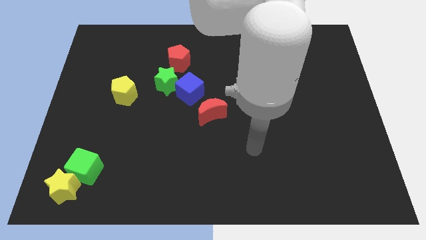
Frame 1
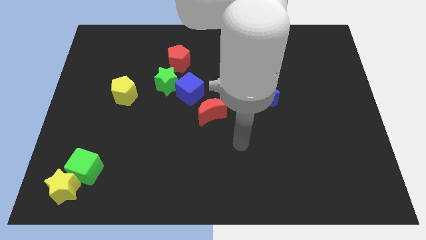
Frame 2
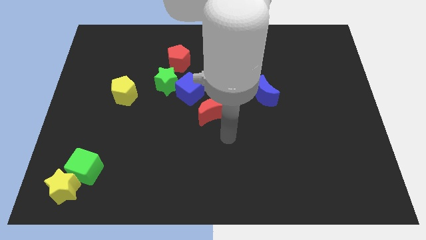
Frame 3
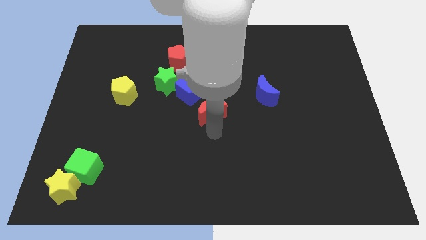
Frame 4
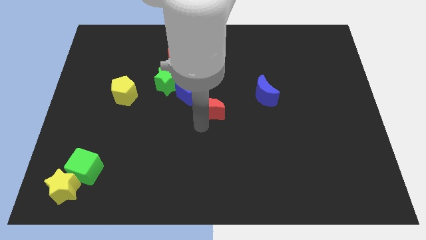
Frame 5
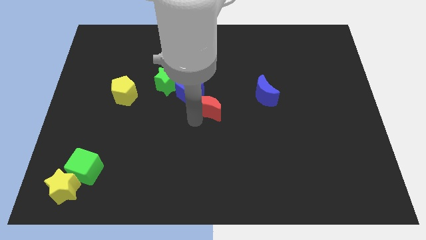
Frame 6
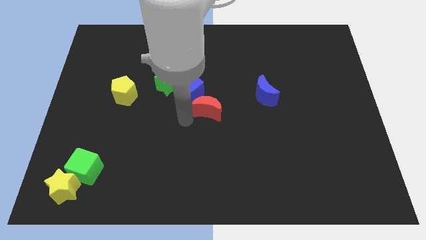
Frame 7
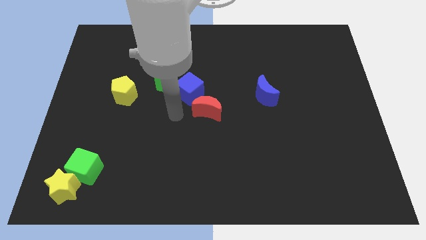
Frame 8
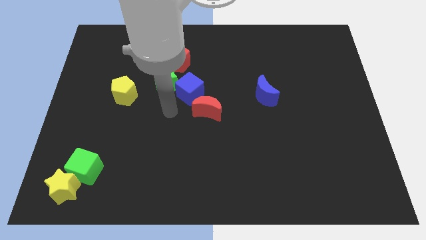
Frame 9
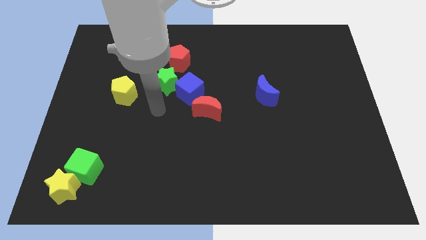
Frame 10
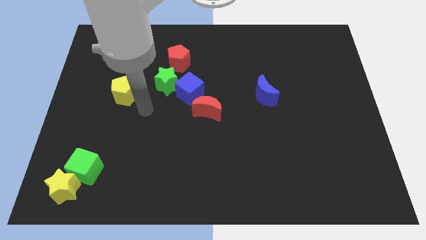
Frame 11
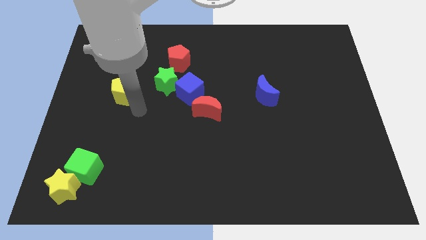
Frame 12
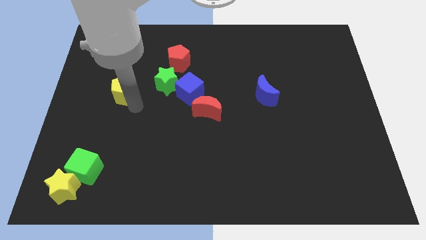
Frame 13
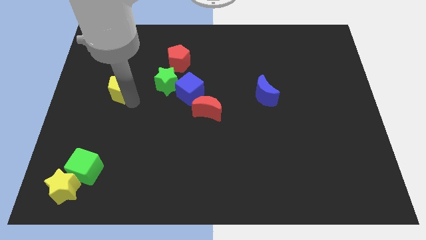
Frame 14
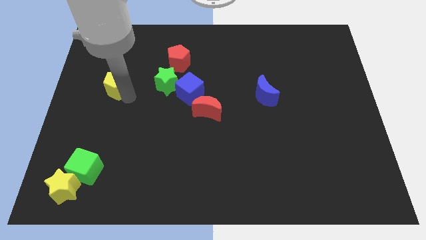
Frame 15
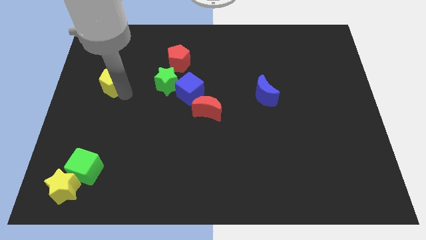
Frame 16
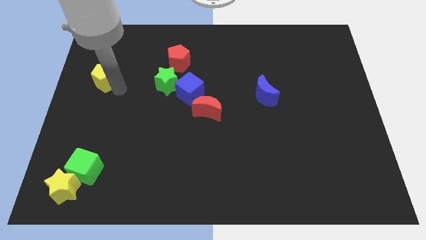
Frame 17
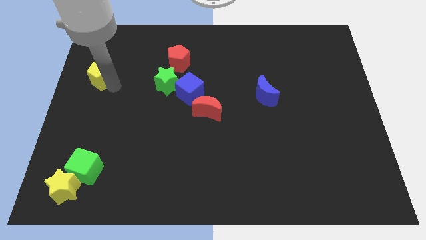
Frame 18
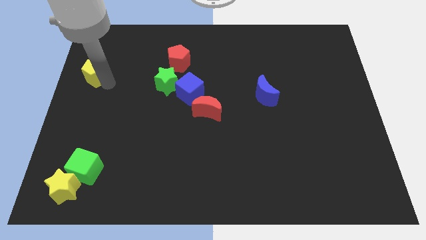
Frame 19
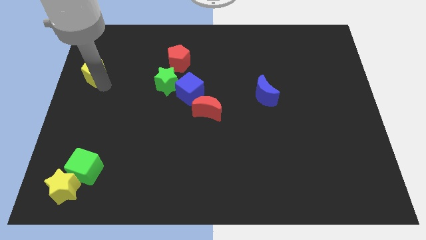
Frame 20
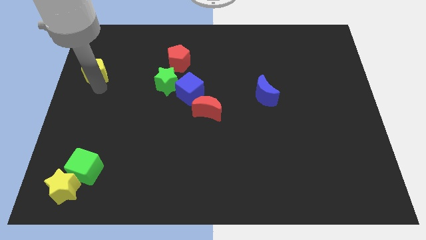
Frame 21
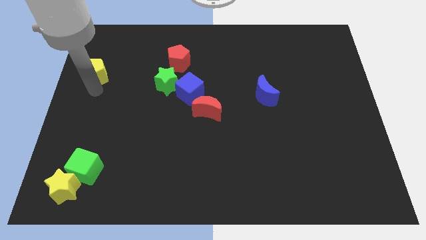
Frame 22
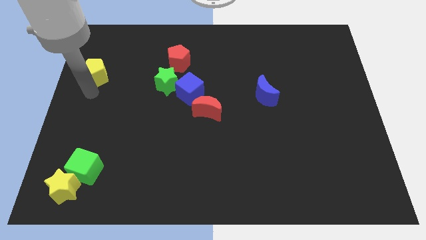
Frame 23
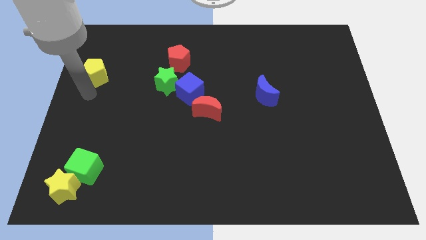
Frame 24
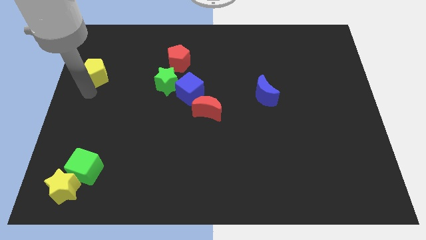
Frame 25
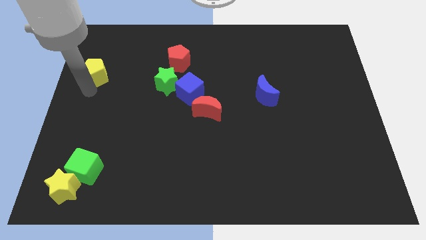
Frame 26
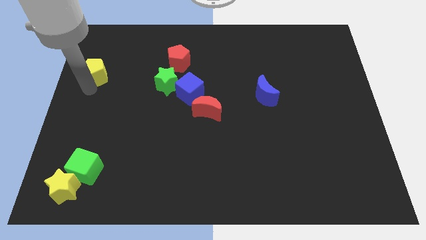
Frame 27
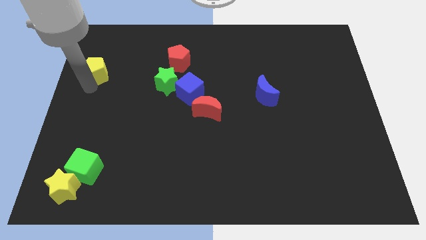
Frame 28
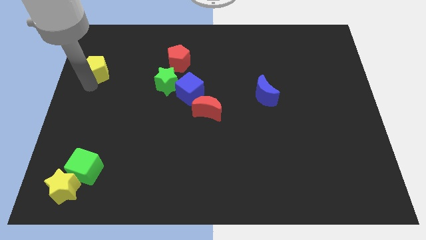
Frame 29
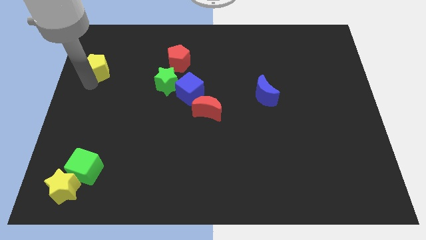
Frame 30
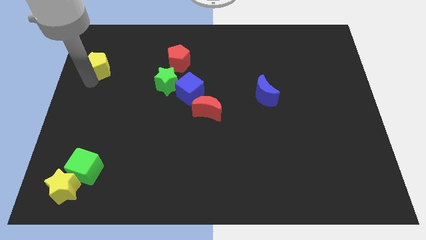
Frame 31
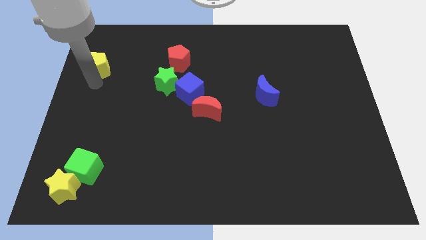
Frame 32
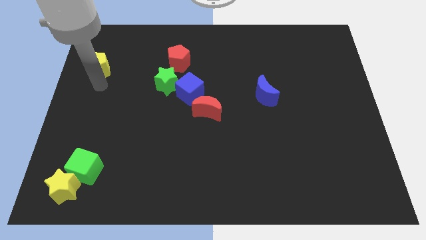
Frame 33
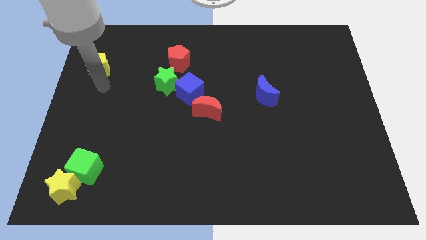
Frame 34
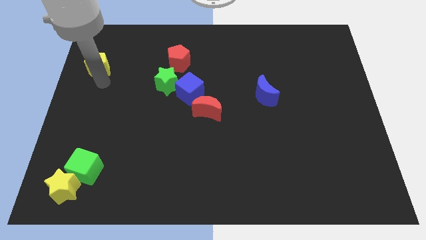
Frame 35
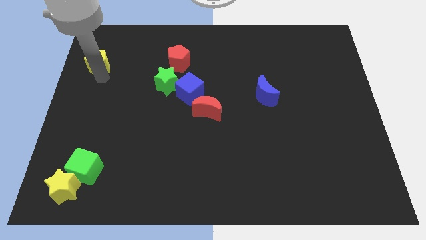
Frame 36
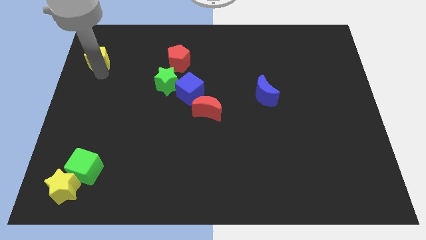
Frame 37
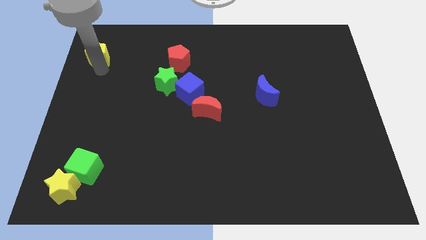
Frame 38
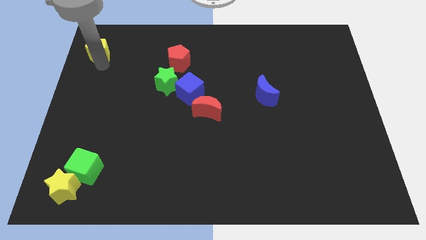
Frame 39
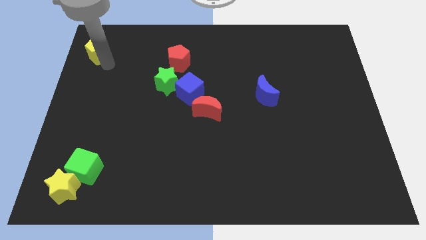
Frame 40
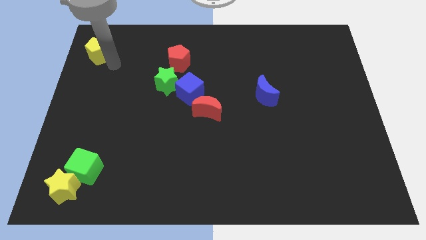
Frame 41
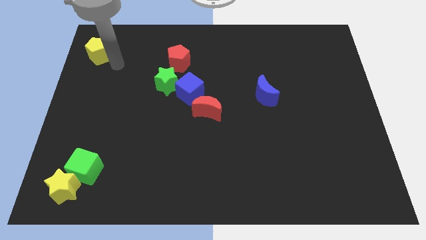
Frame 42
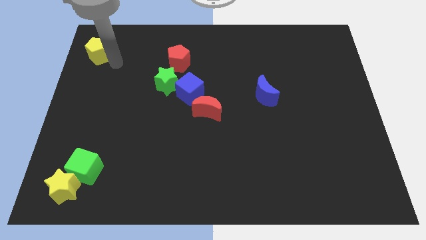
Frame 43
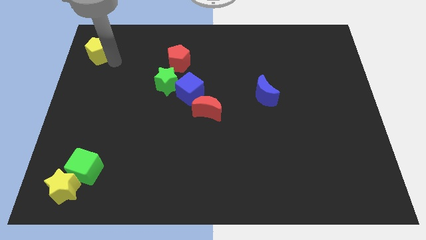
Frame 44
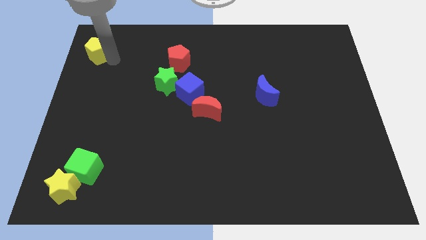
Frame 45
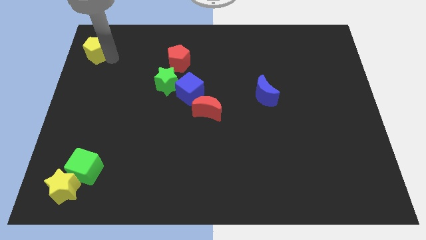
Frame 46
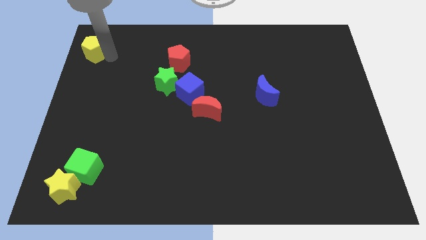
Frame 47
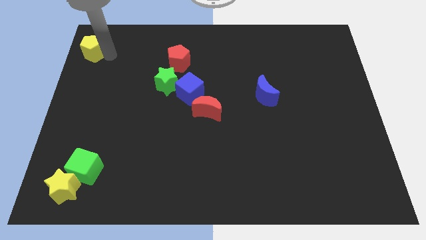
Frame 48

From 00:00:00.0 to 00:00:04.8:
move the yellow pentagon to the top left corner

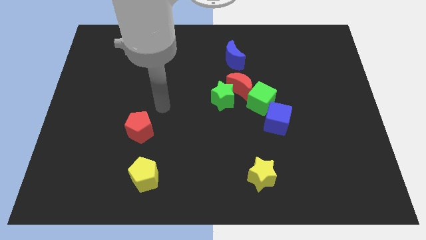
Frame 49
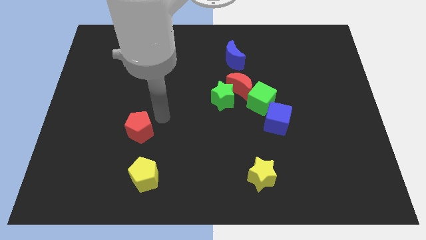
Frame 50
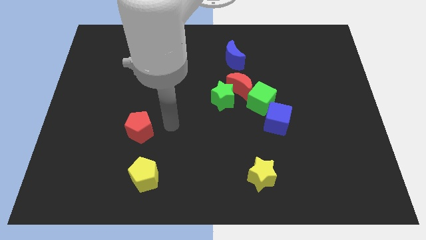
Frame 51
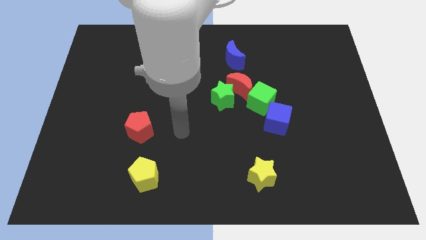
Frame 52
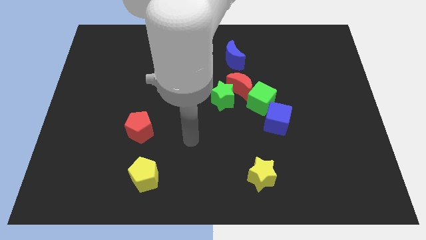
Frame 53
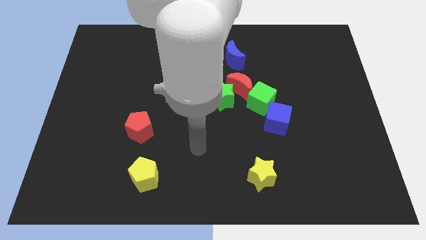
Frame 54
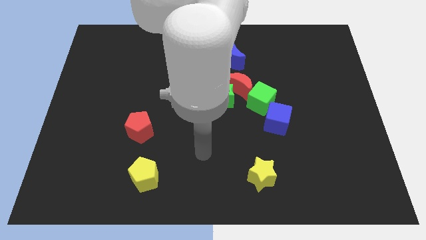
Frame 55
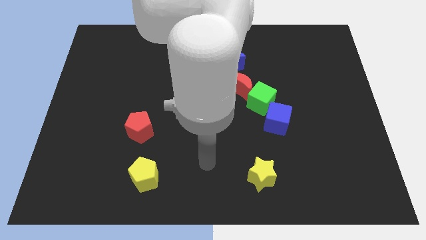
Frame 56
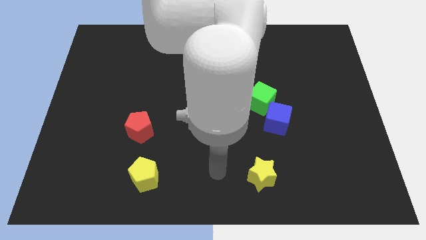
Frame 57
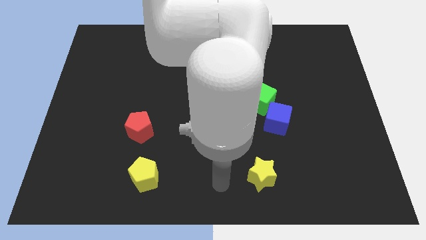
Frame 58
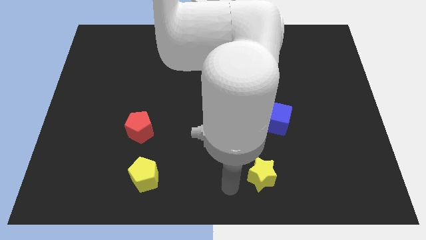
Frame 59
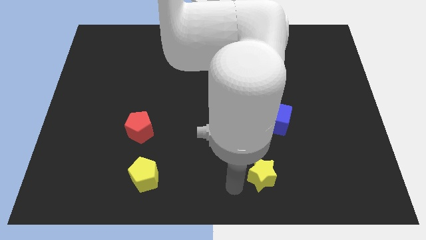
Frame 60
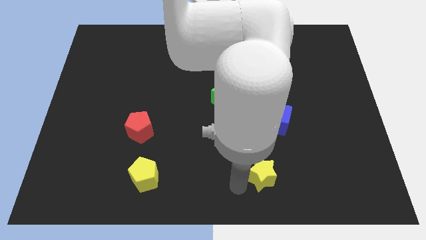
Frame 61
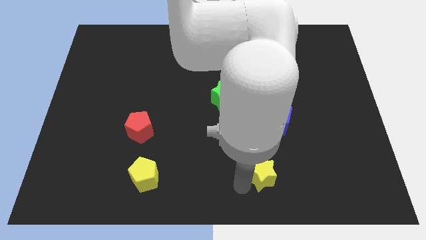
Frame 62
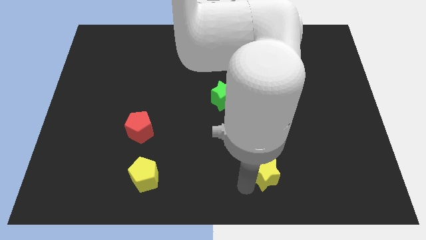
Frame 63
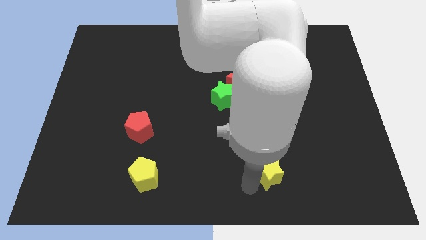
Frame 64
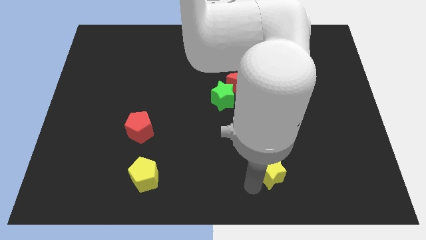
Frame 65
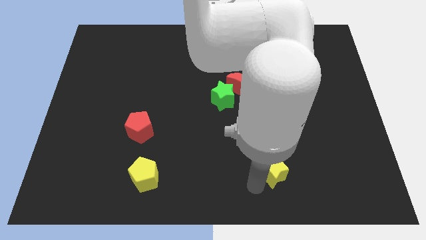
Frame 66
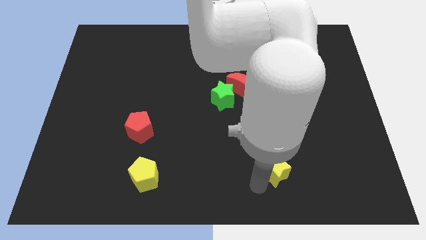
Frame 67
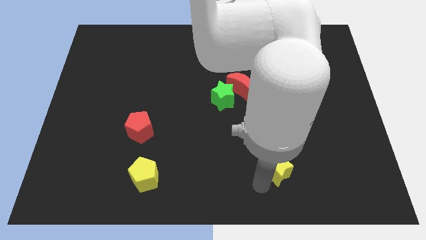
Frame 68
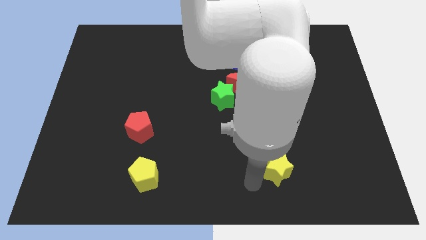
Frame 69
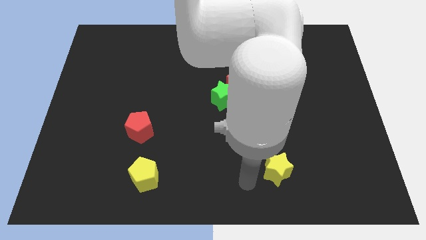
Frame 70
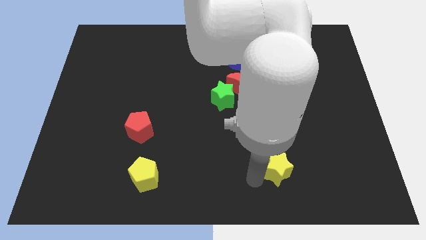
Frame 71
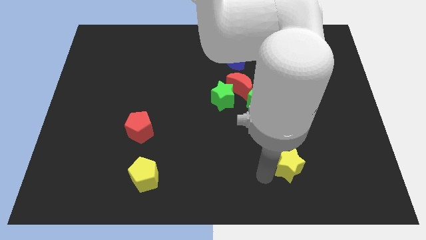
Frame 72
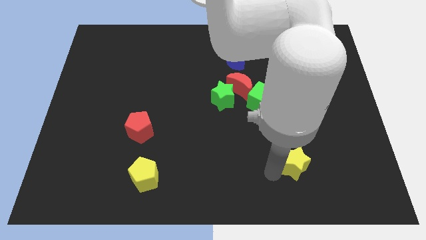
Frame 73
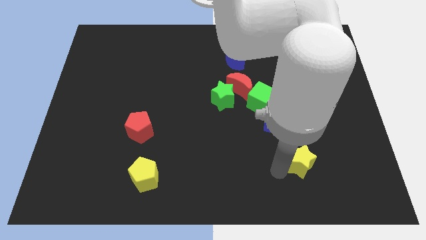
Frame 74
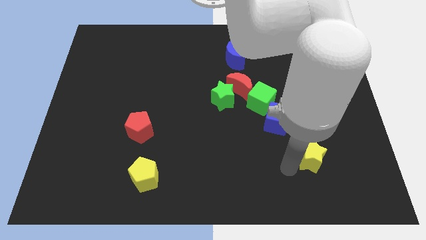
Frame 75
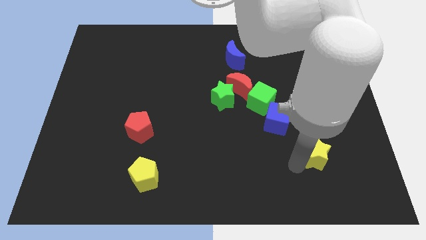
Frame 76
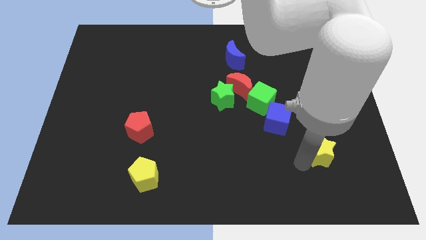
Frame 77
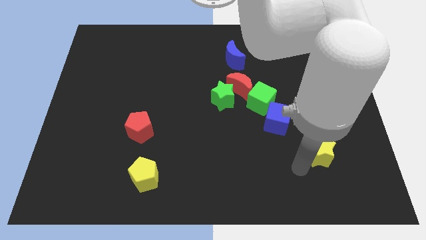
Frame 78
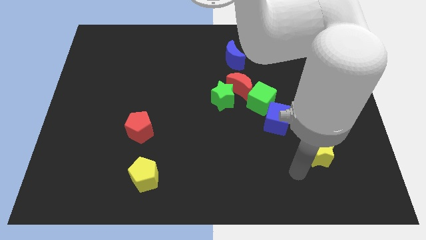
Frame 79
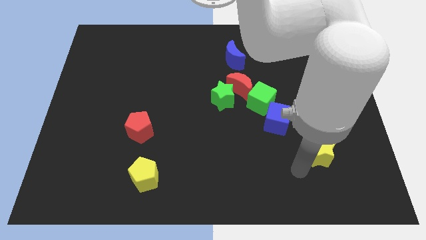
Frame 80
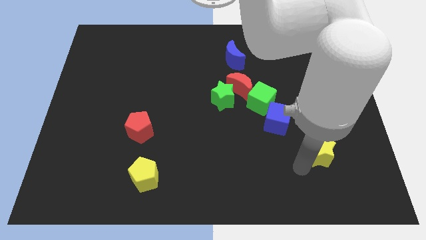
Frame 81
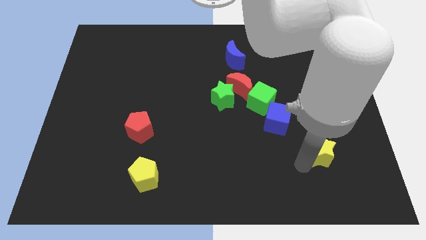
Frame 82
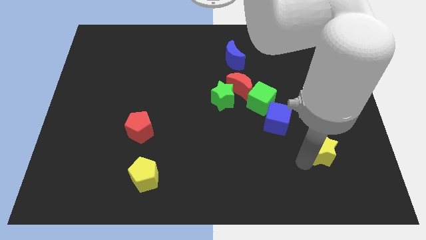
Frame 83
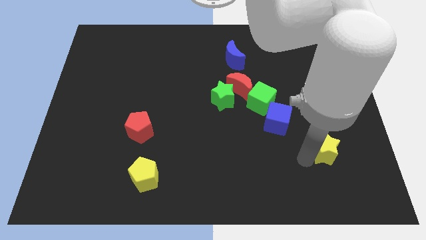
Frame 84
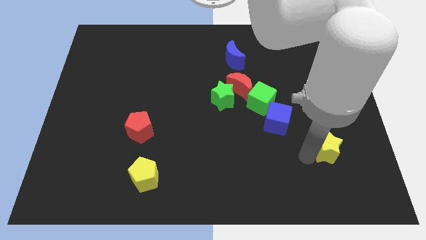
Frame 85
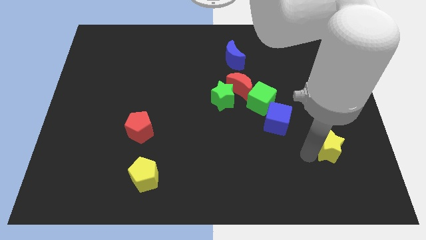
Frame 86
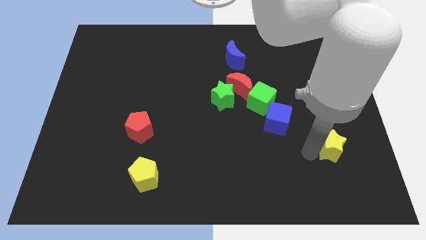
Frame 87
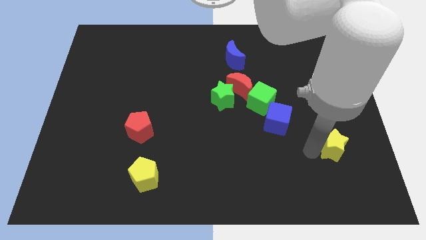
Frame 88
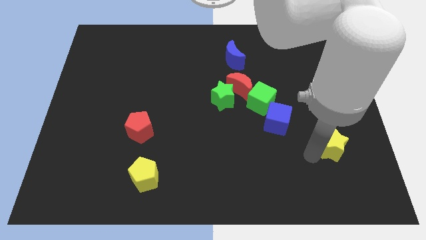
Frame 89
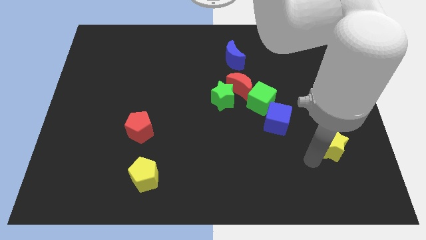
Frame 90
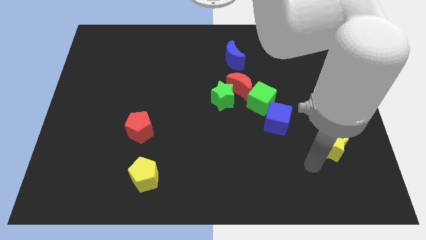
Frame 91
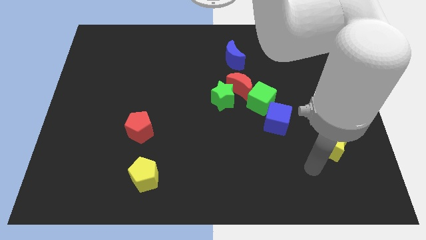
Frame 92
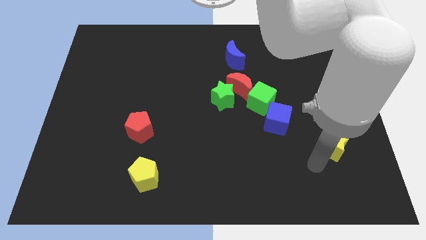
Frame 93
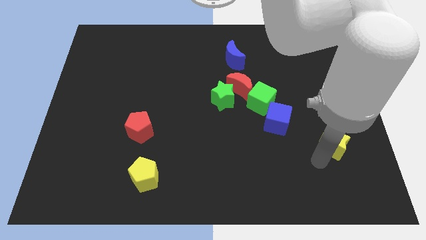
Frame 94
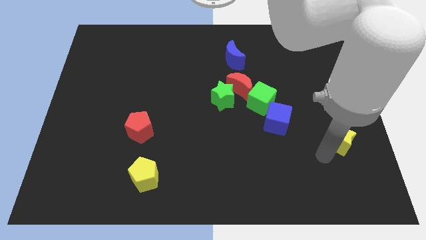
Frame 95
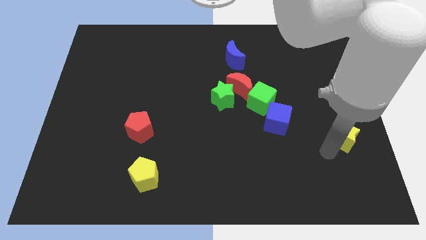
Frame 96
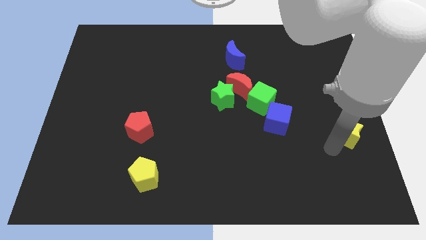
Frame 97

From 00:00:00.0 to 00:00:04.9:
move the yellow star to the right side
